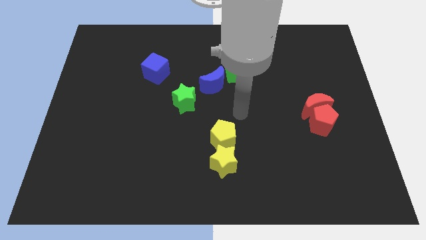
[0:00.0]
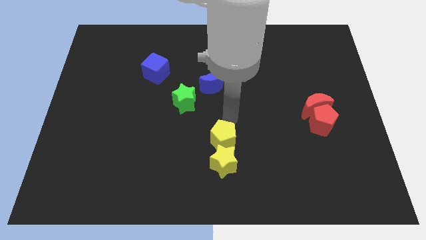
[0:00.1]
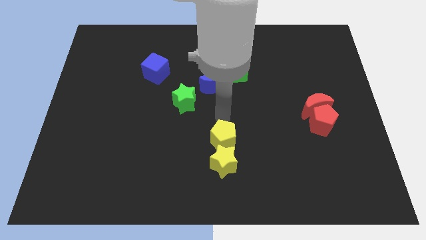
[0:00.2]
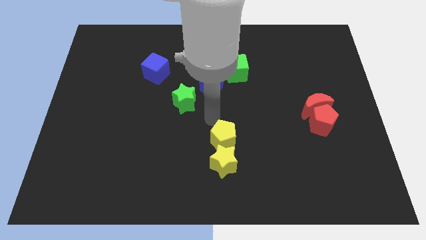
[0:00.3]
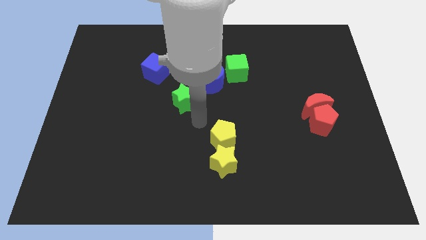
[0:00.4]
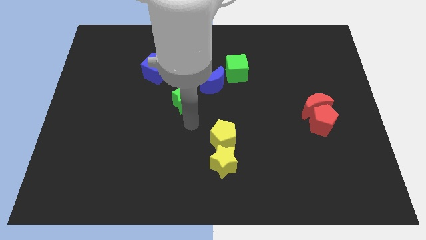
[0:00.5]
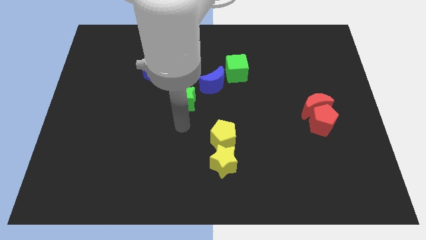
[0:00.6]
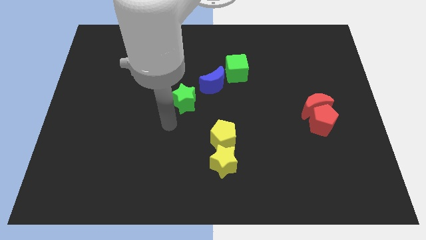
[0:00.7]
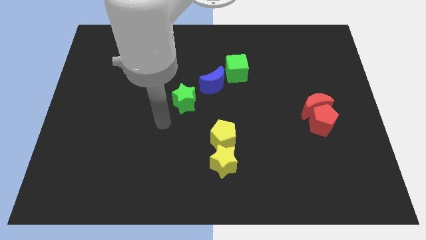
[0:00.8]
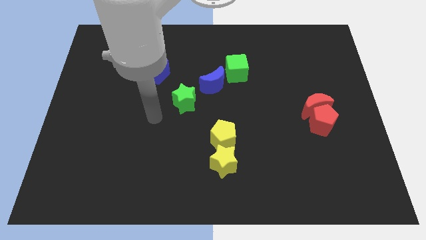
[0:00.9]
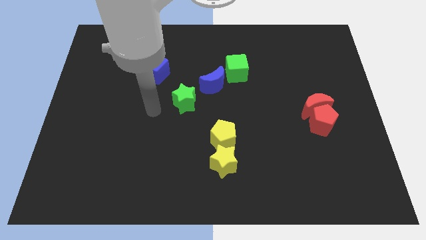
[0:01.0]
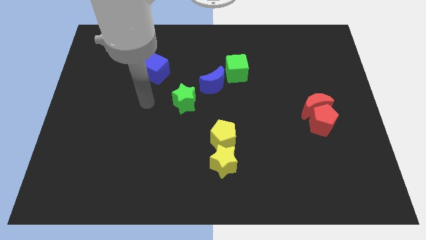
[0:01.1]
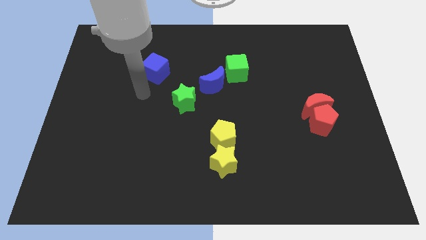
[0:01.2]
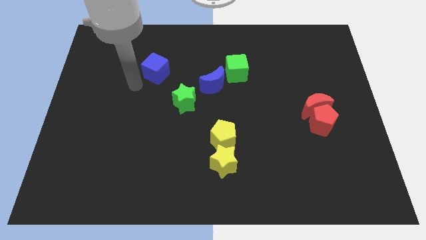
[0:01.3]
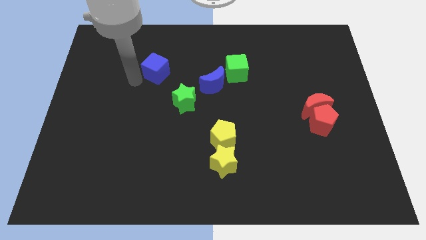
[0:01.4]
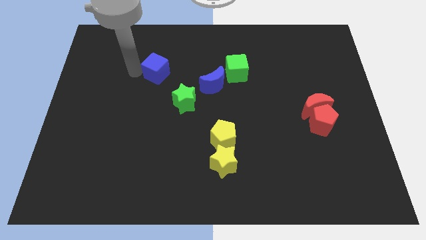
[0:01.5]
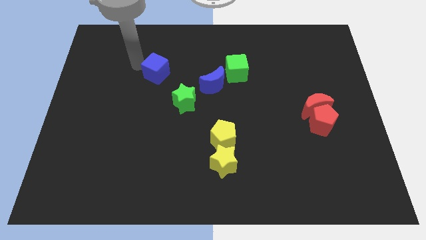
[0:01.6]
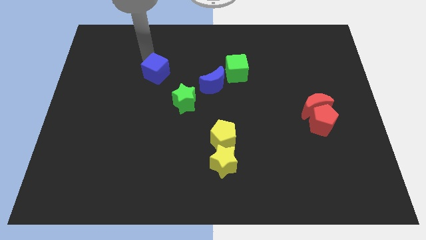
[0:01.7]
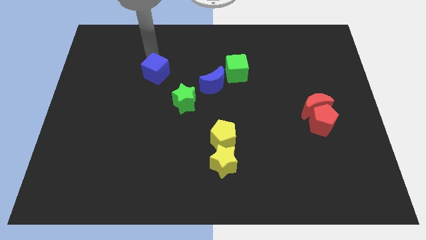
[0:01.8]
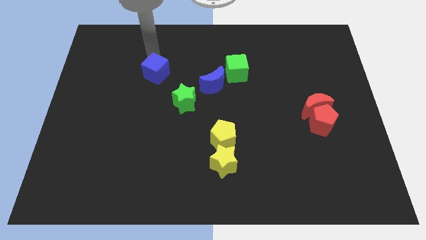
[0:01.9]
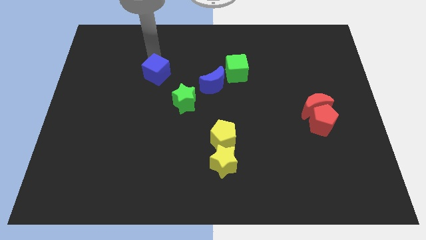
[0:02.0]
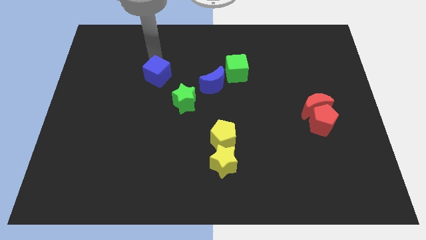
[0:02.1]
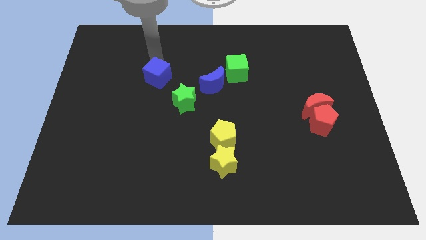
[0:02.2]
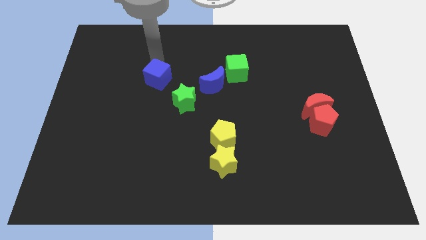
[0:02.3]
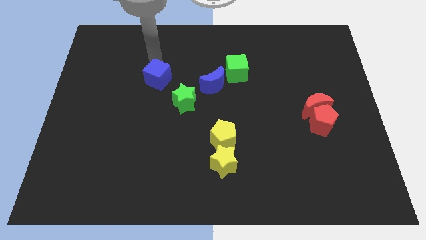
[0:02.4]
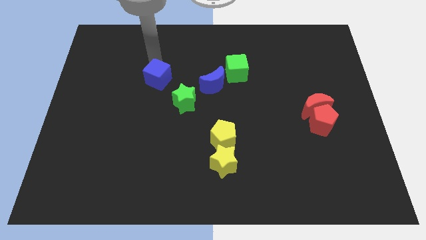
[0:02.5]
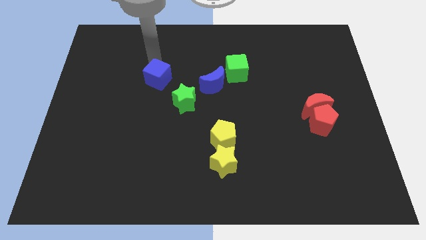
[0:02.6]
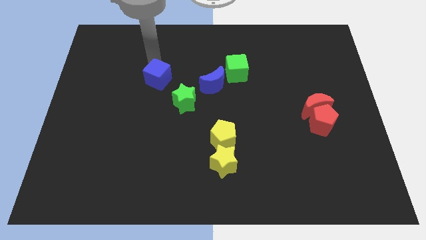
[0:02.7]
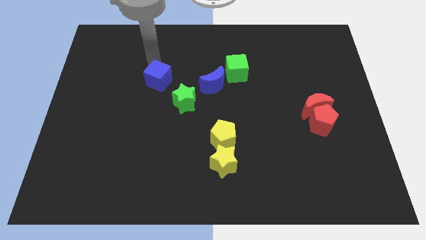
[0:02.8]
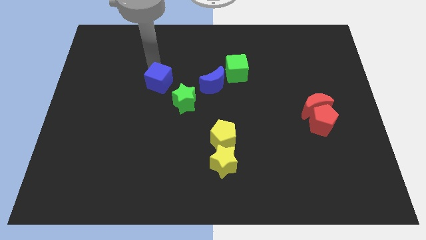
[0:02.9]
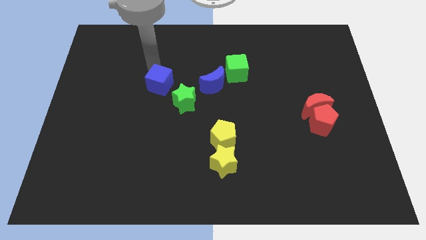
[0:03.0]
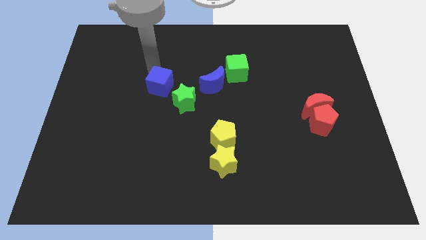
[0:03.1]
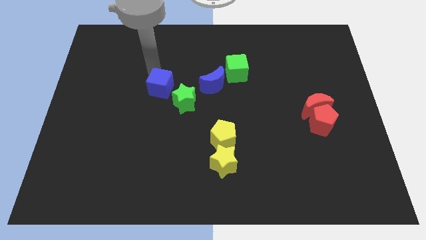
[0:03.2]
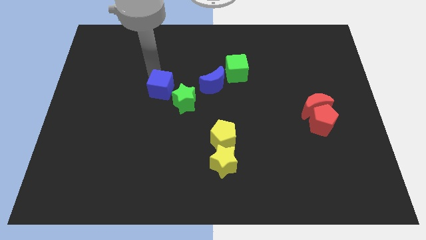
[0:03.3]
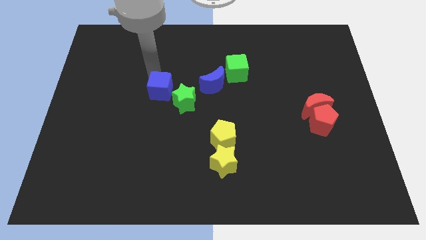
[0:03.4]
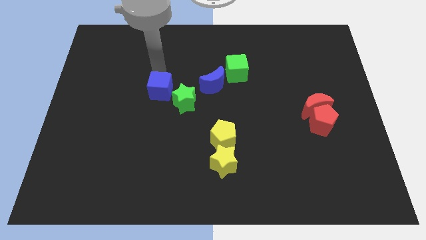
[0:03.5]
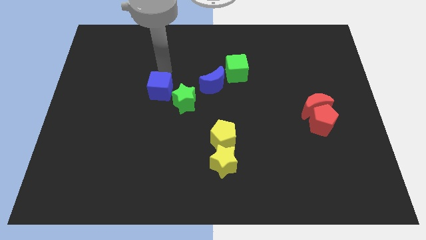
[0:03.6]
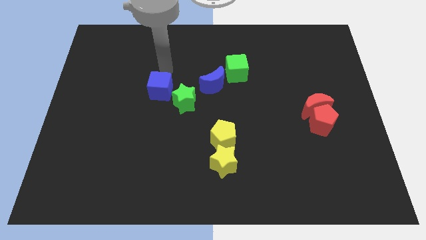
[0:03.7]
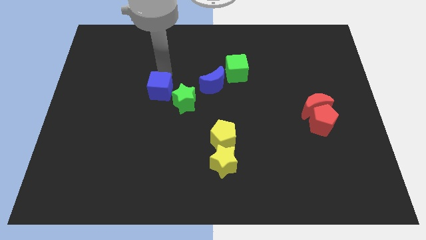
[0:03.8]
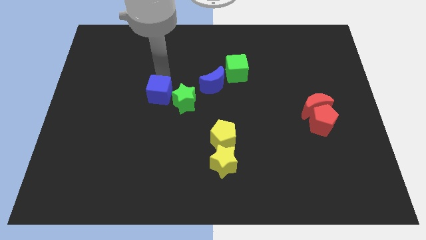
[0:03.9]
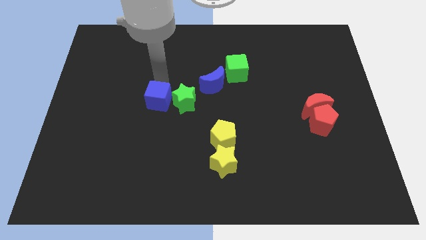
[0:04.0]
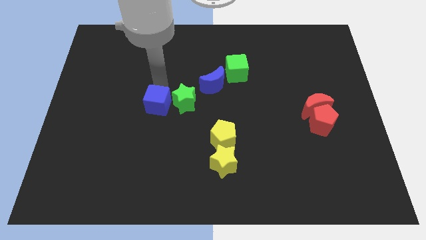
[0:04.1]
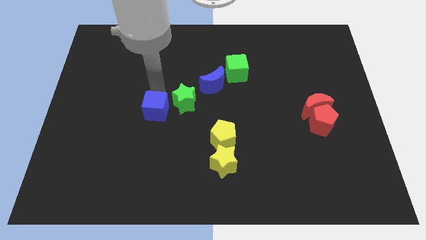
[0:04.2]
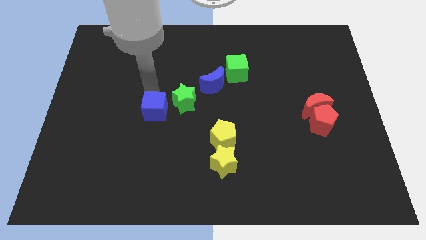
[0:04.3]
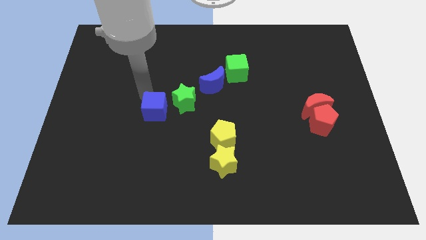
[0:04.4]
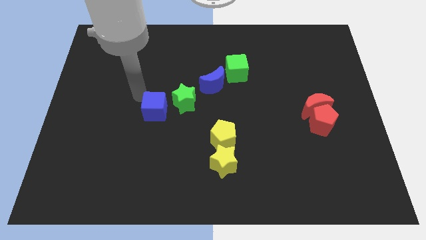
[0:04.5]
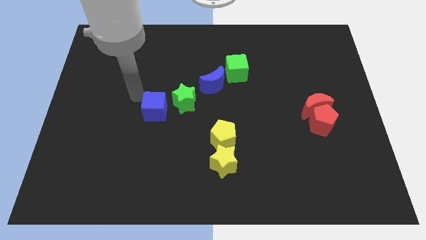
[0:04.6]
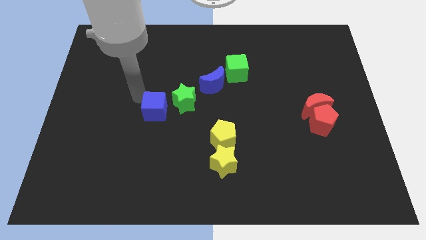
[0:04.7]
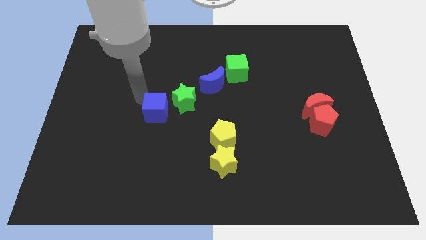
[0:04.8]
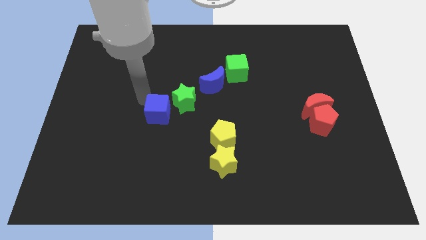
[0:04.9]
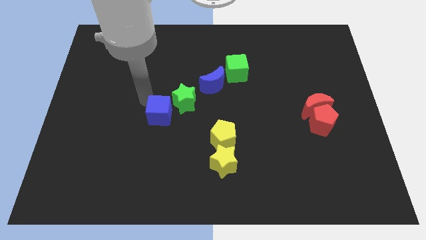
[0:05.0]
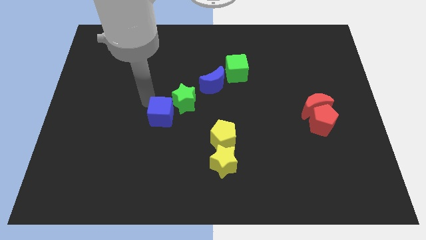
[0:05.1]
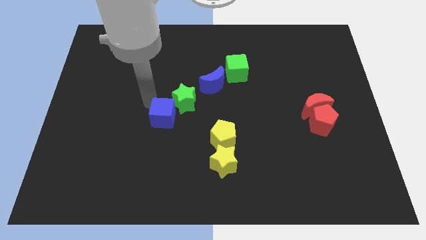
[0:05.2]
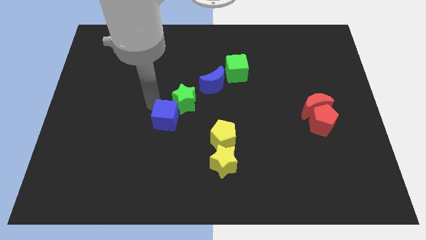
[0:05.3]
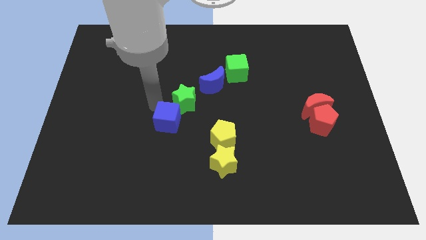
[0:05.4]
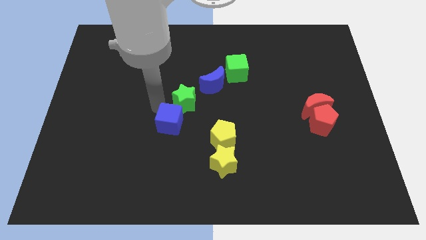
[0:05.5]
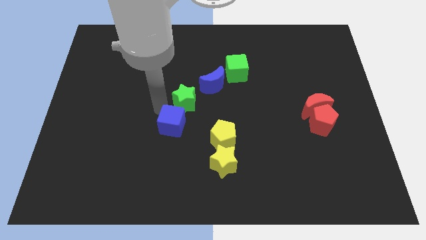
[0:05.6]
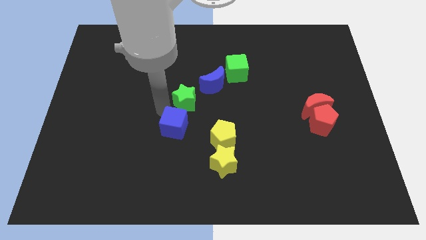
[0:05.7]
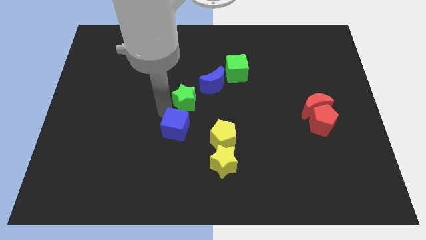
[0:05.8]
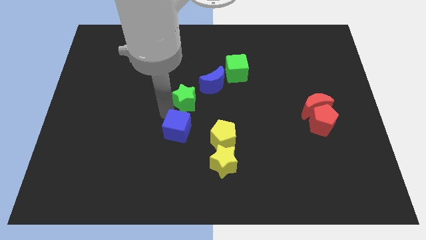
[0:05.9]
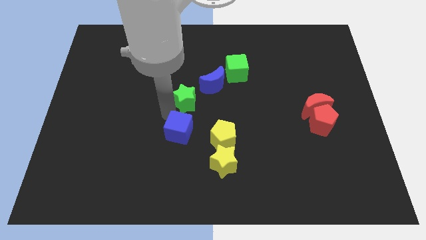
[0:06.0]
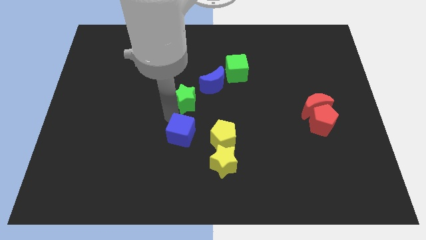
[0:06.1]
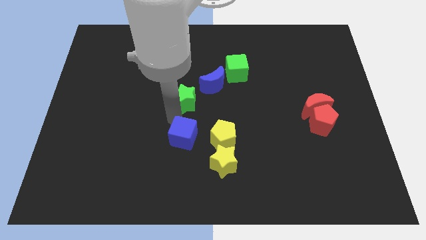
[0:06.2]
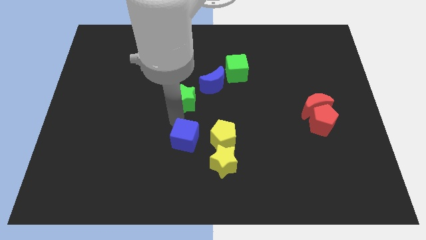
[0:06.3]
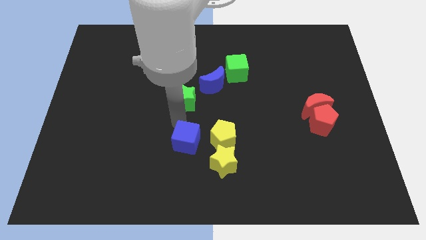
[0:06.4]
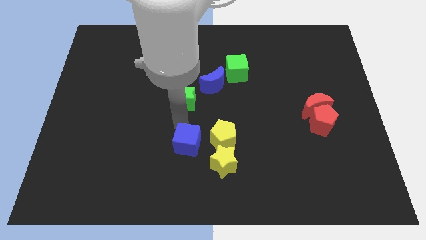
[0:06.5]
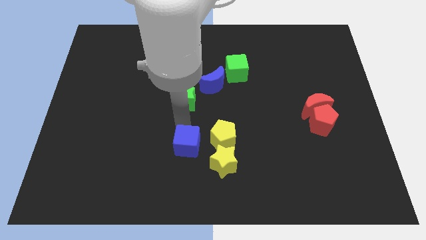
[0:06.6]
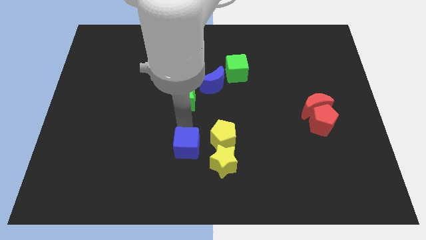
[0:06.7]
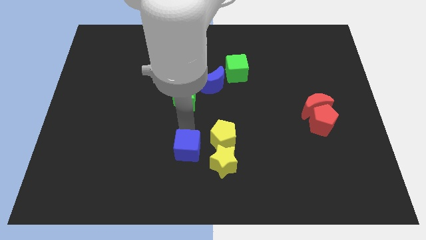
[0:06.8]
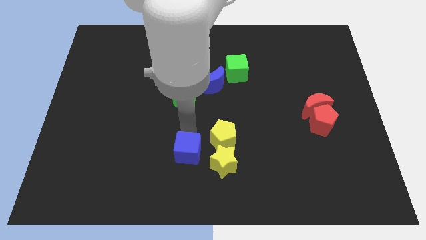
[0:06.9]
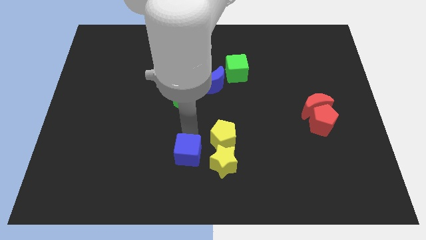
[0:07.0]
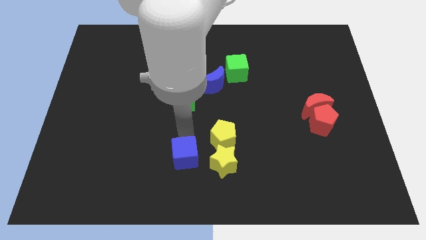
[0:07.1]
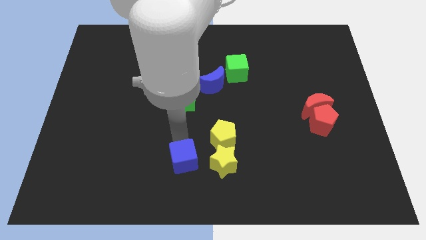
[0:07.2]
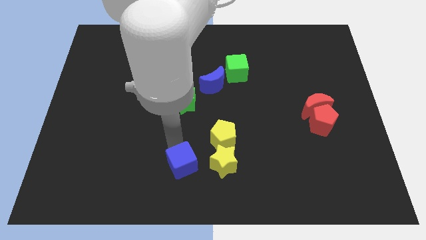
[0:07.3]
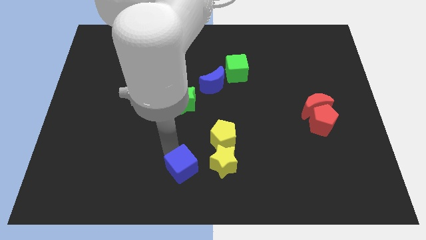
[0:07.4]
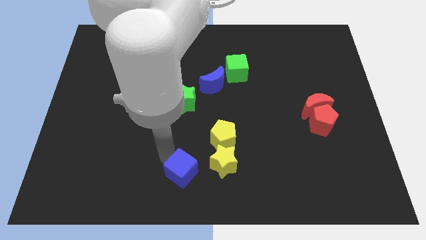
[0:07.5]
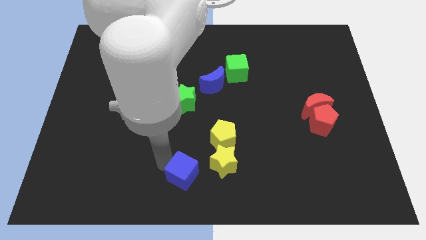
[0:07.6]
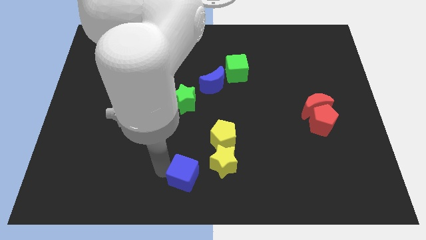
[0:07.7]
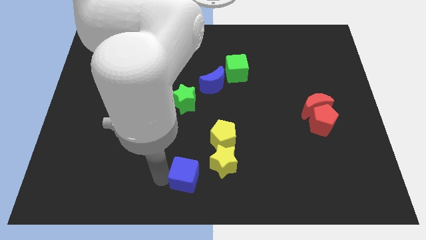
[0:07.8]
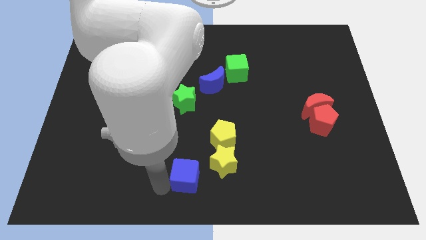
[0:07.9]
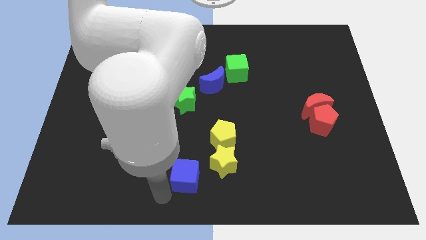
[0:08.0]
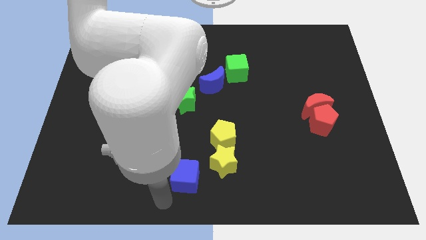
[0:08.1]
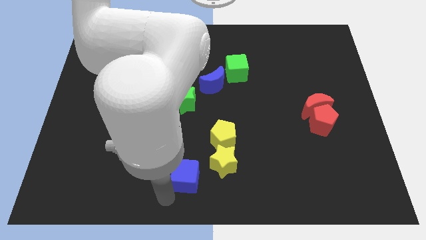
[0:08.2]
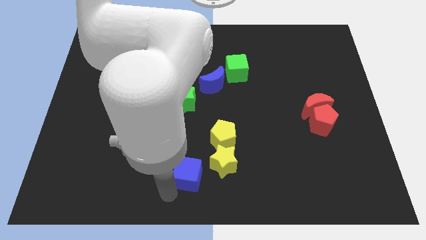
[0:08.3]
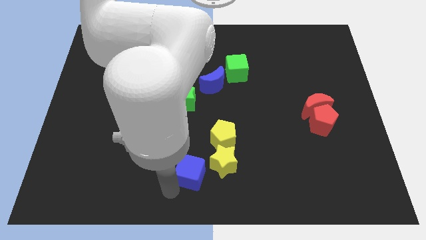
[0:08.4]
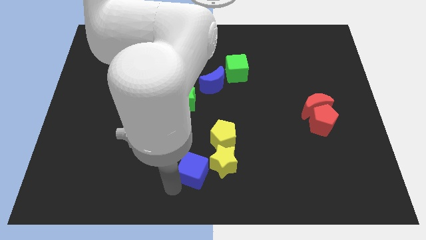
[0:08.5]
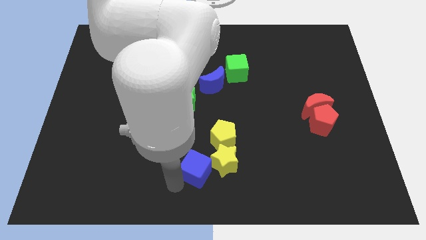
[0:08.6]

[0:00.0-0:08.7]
slide the blue cube next to the yellow star
